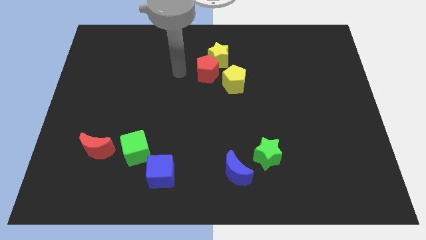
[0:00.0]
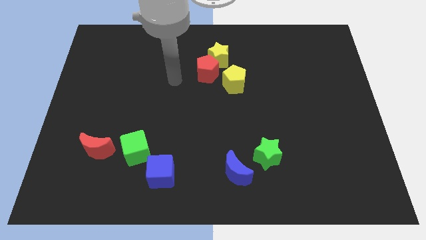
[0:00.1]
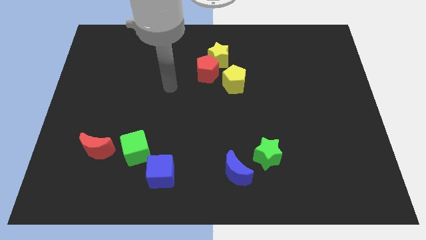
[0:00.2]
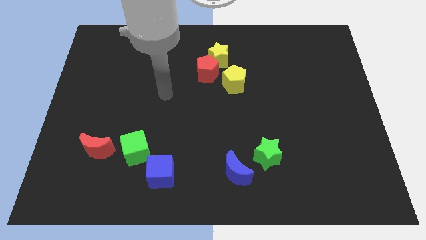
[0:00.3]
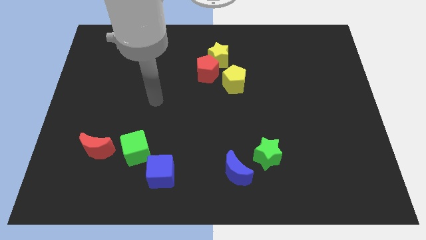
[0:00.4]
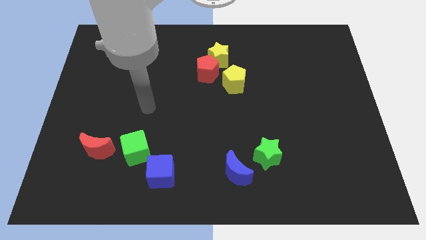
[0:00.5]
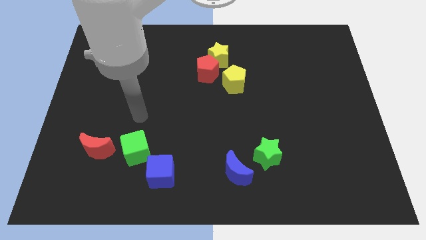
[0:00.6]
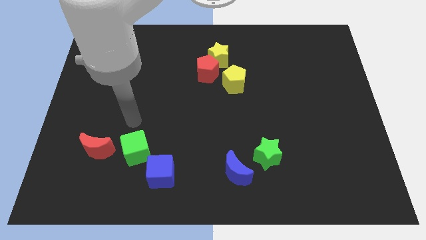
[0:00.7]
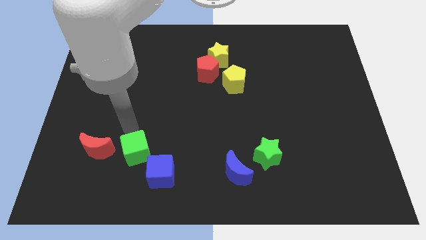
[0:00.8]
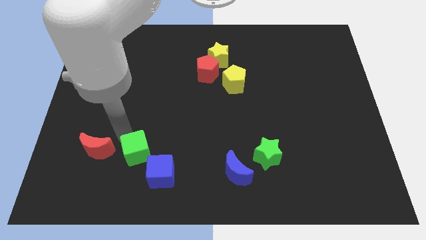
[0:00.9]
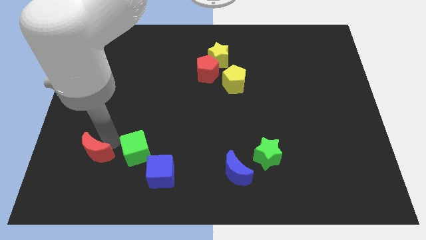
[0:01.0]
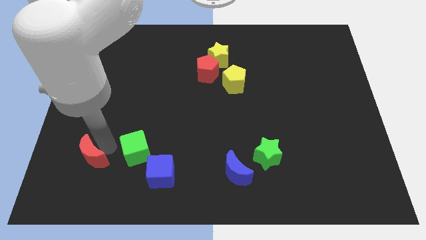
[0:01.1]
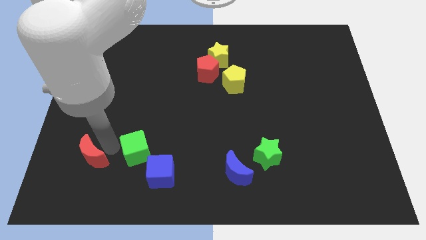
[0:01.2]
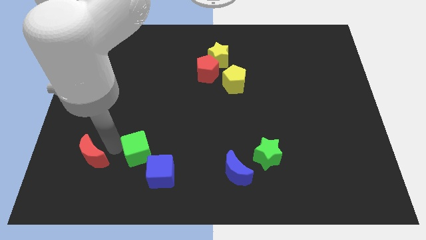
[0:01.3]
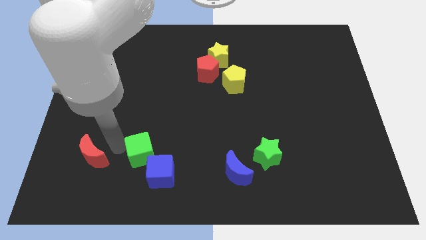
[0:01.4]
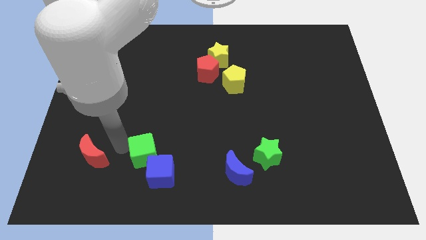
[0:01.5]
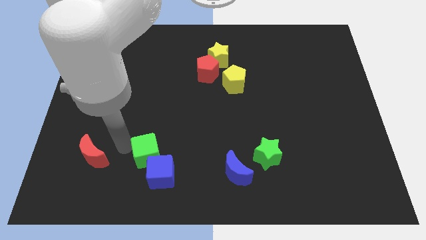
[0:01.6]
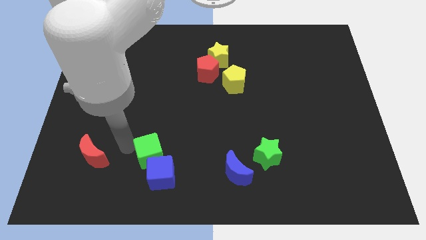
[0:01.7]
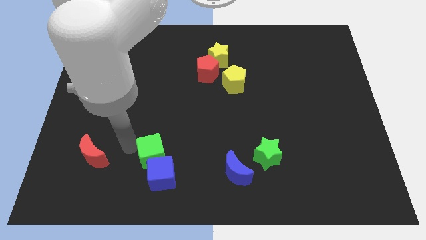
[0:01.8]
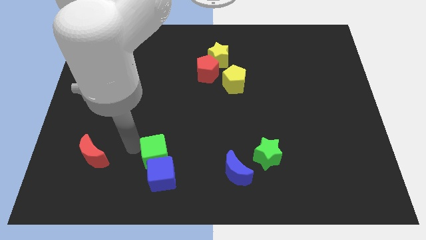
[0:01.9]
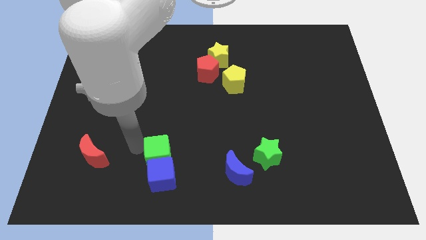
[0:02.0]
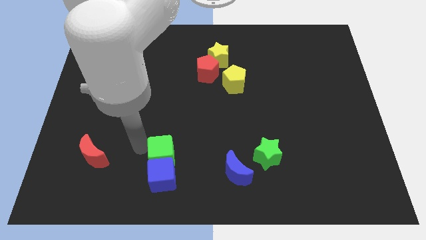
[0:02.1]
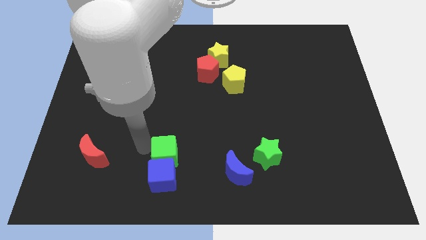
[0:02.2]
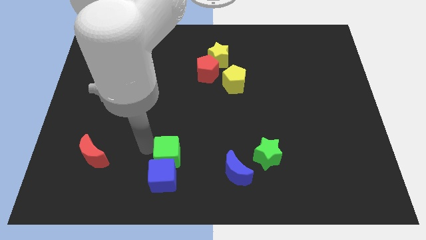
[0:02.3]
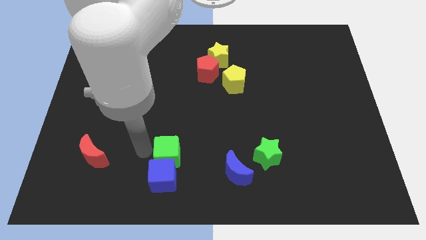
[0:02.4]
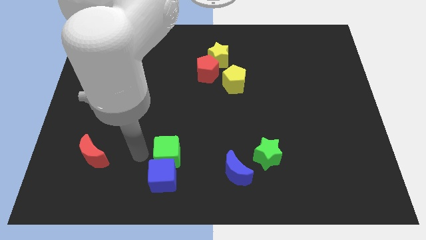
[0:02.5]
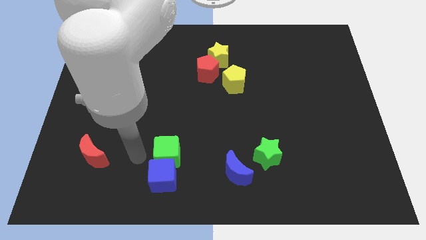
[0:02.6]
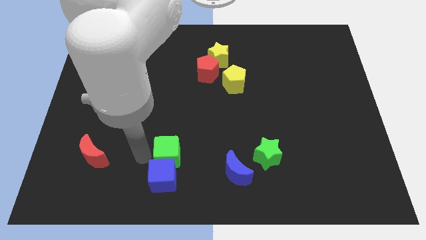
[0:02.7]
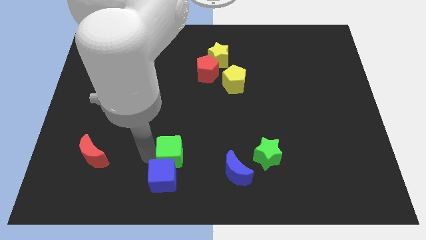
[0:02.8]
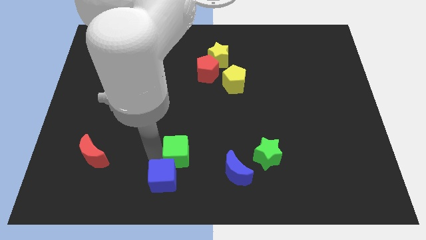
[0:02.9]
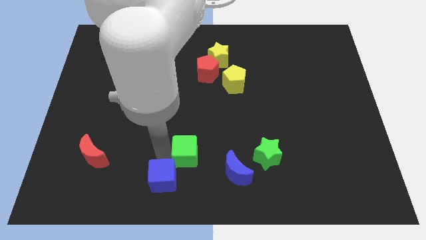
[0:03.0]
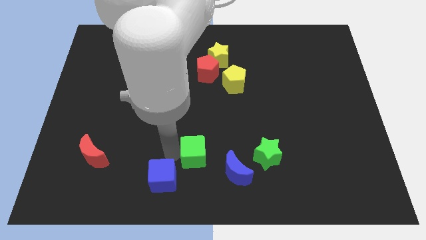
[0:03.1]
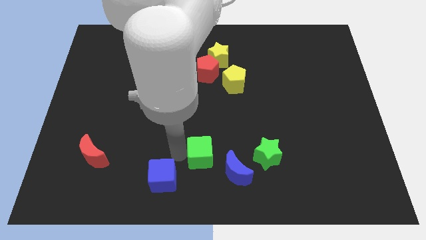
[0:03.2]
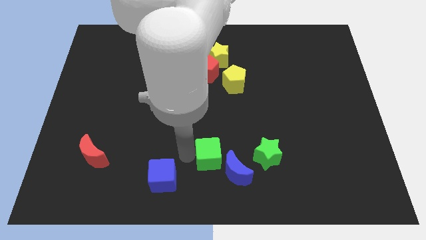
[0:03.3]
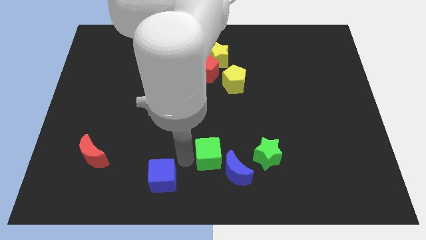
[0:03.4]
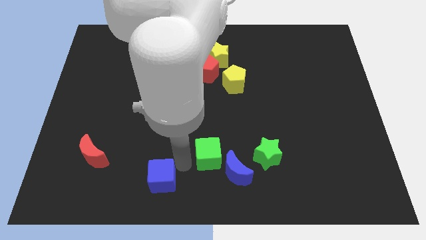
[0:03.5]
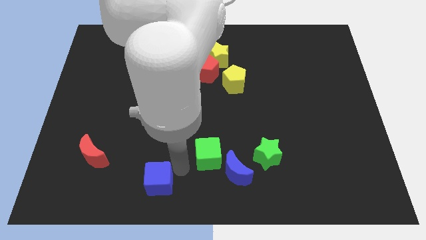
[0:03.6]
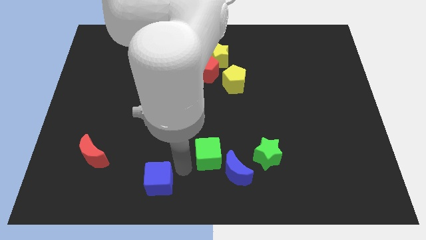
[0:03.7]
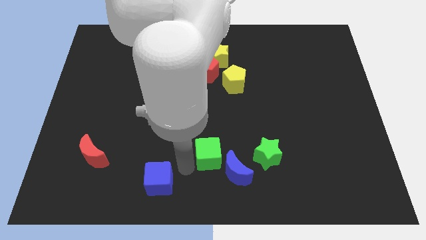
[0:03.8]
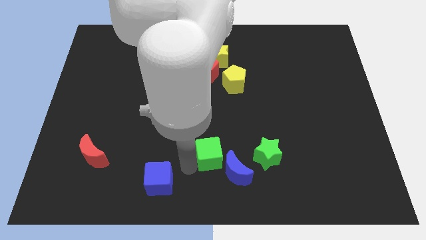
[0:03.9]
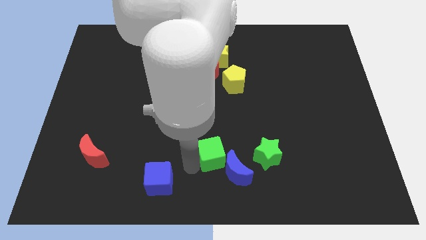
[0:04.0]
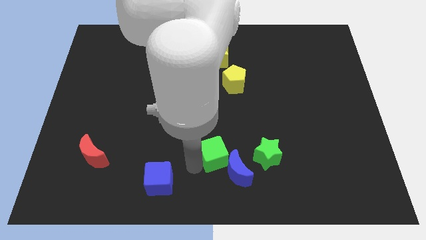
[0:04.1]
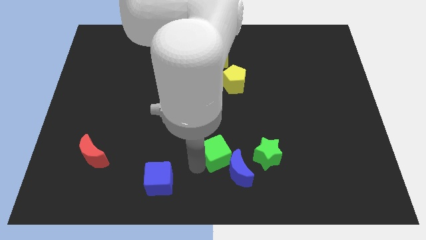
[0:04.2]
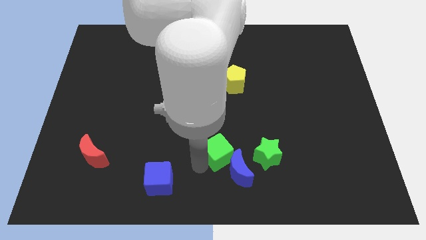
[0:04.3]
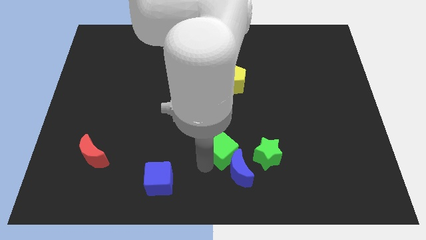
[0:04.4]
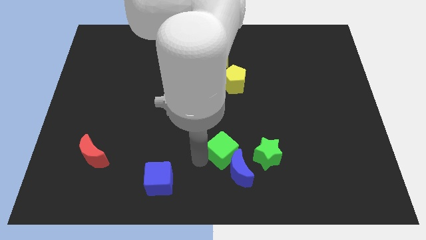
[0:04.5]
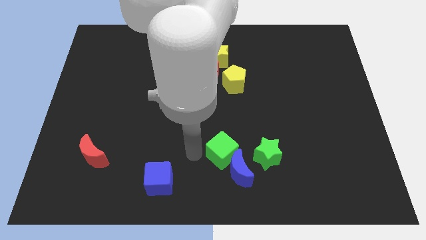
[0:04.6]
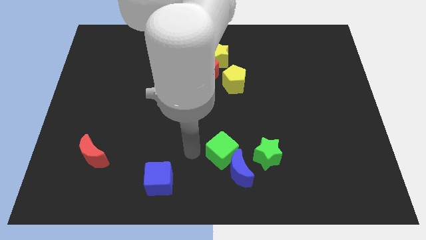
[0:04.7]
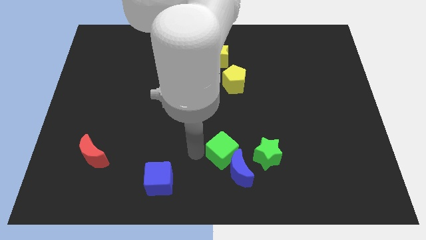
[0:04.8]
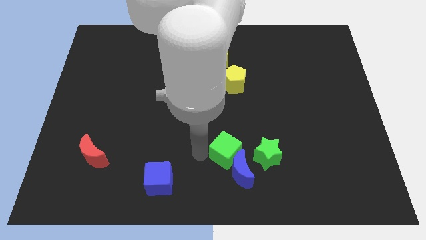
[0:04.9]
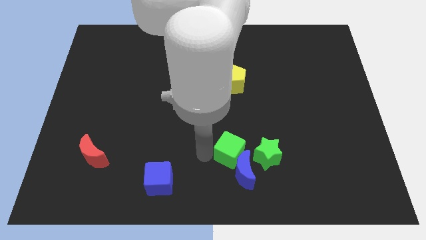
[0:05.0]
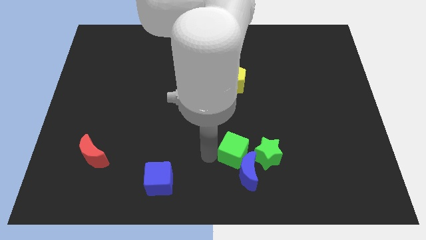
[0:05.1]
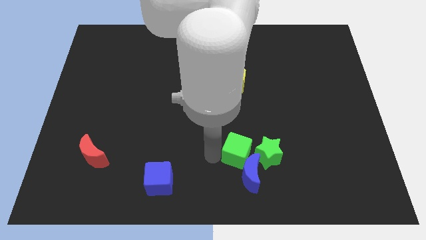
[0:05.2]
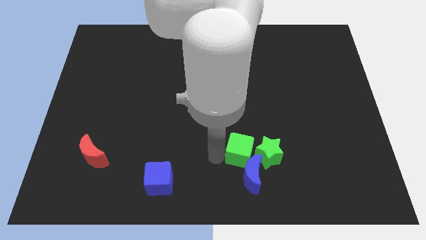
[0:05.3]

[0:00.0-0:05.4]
move the green cube towards the green star

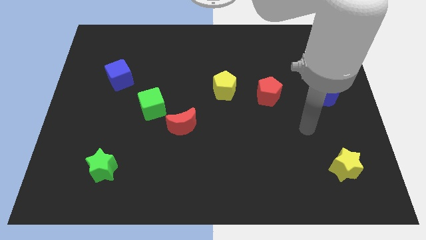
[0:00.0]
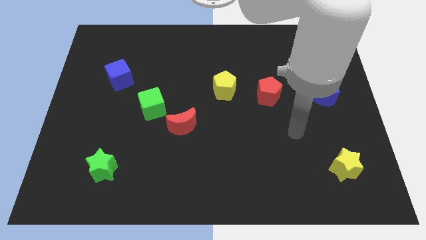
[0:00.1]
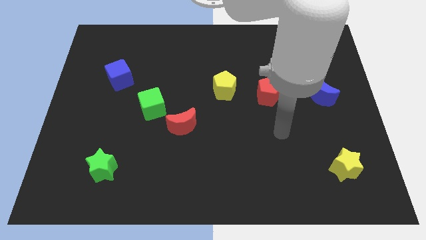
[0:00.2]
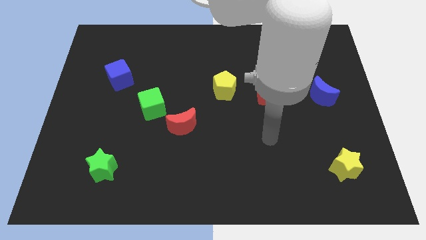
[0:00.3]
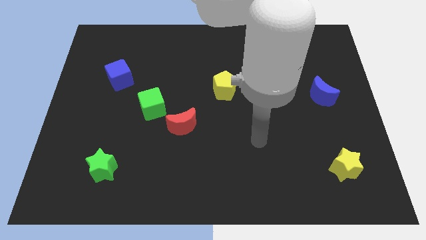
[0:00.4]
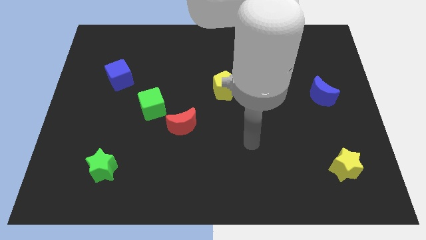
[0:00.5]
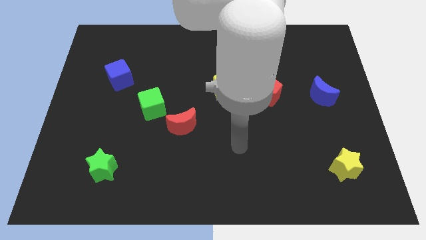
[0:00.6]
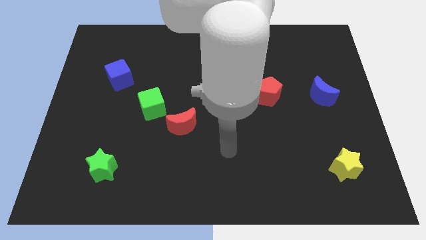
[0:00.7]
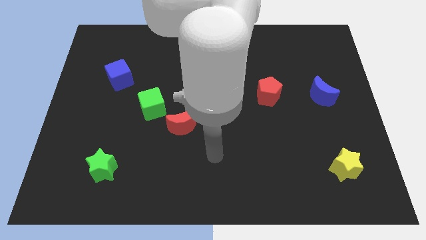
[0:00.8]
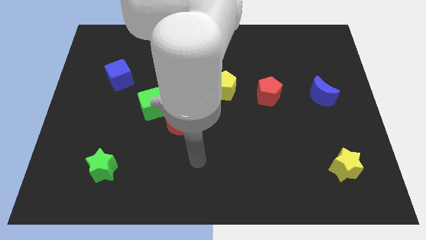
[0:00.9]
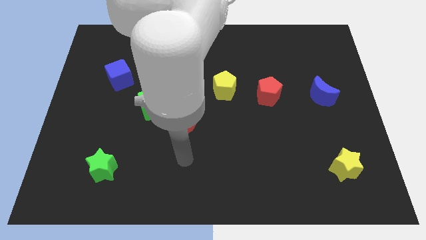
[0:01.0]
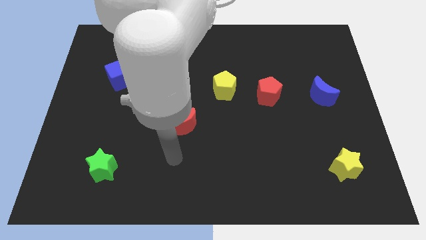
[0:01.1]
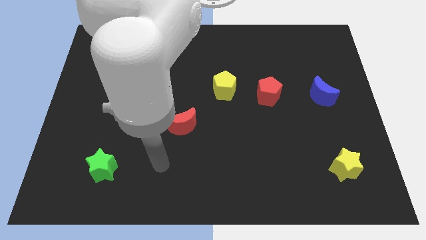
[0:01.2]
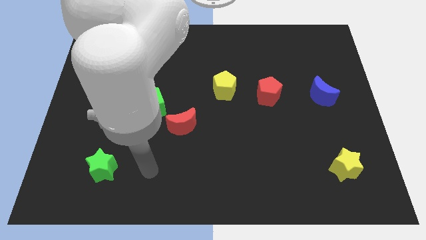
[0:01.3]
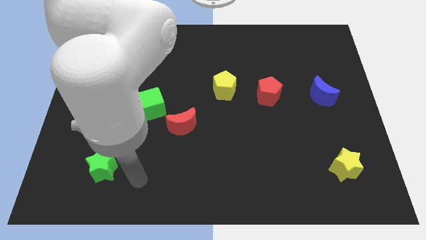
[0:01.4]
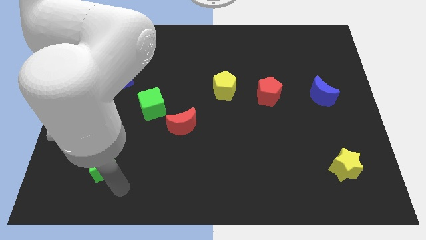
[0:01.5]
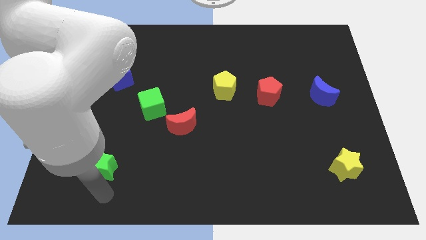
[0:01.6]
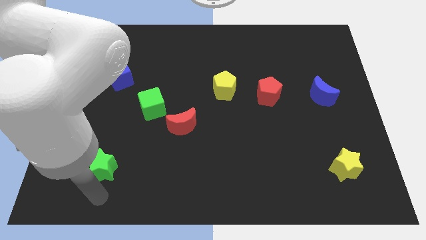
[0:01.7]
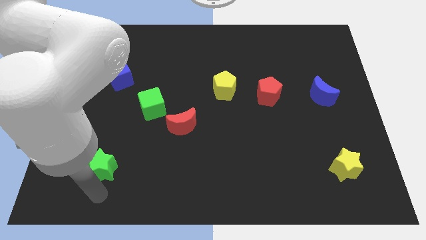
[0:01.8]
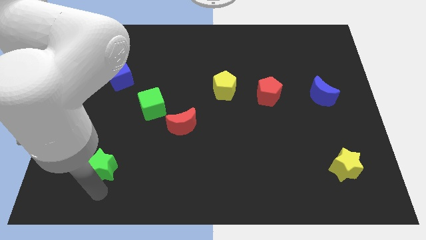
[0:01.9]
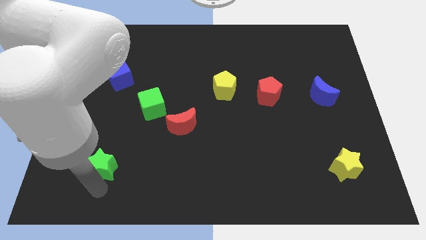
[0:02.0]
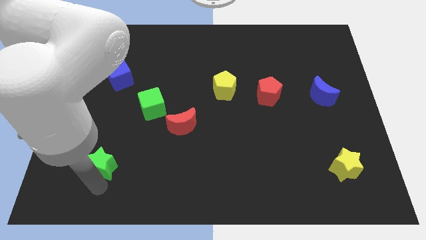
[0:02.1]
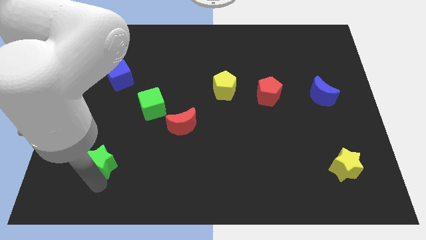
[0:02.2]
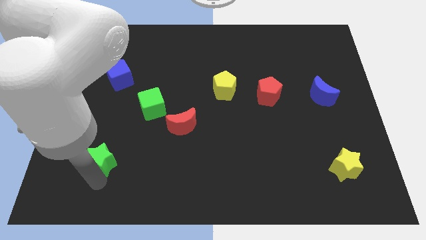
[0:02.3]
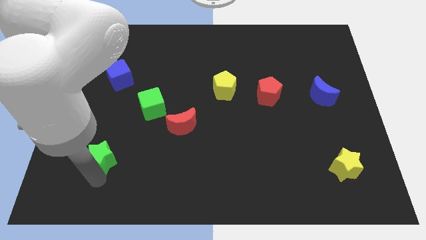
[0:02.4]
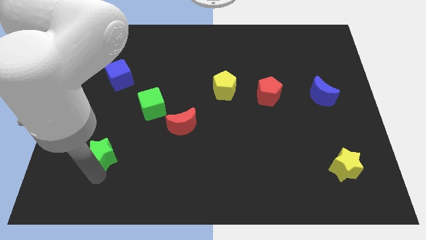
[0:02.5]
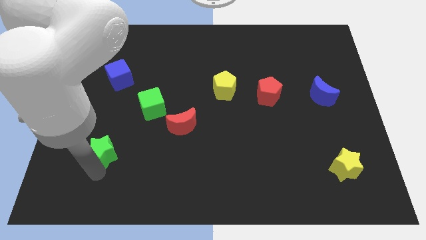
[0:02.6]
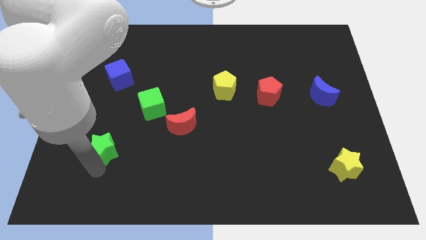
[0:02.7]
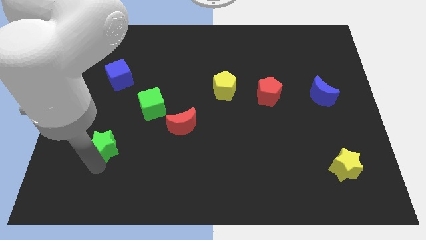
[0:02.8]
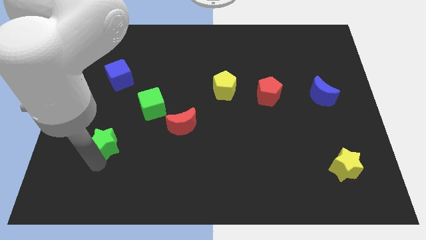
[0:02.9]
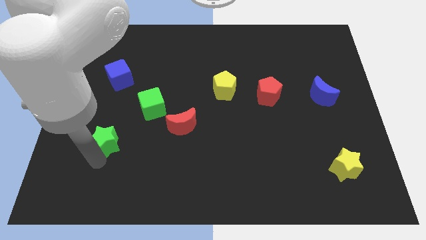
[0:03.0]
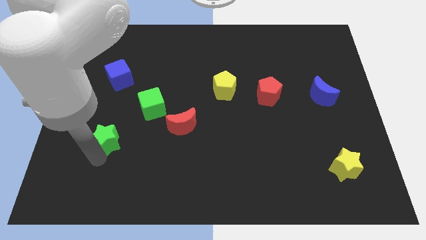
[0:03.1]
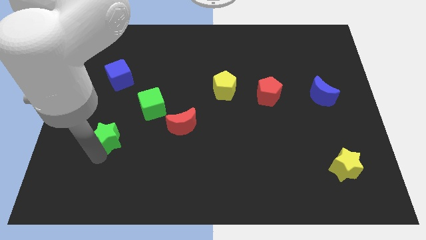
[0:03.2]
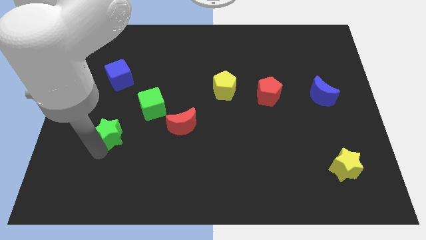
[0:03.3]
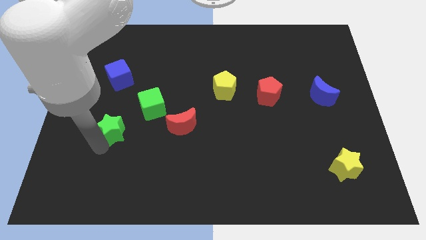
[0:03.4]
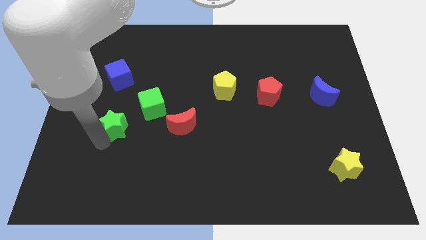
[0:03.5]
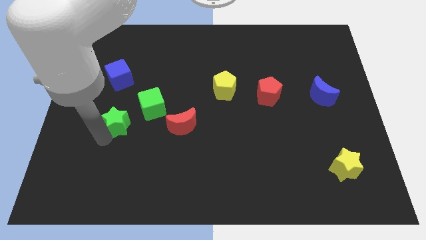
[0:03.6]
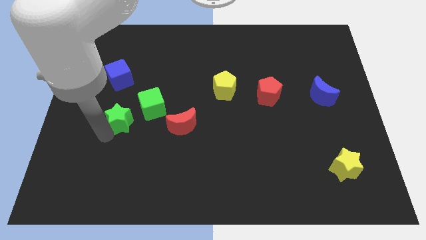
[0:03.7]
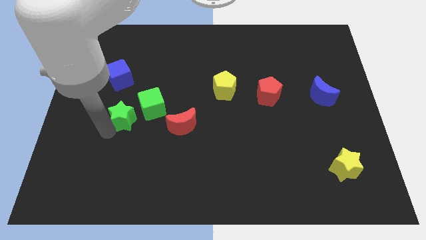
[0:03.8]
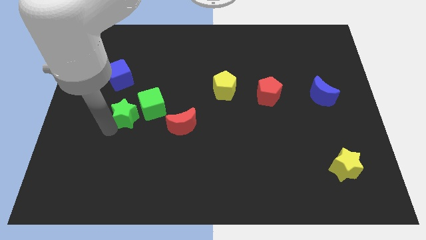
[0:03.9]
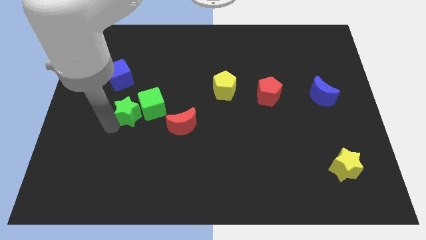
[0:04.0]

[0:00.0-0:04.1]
move the green star next to the green cube
